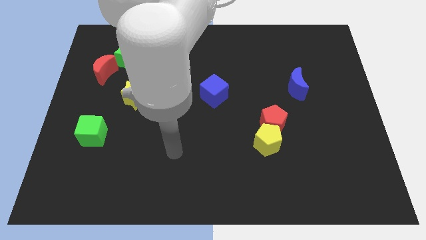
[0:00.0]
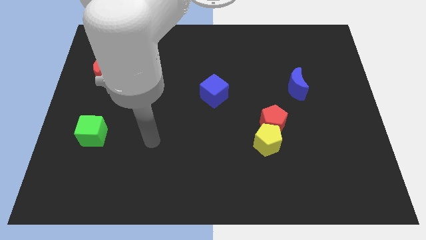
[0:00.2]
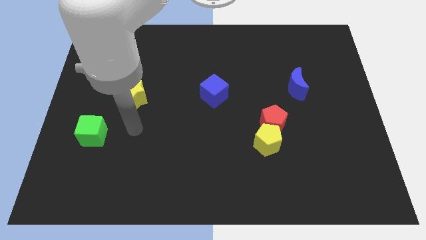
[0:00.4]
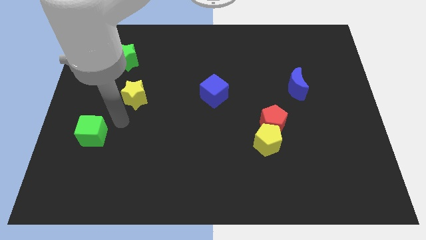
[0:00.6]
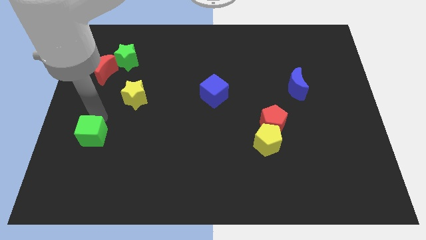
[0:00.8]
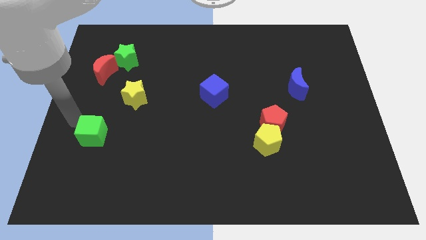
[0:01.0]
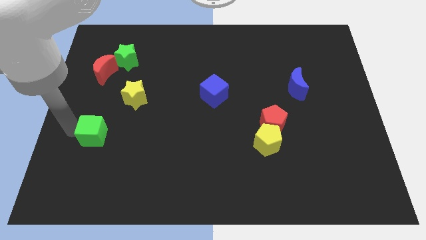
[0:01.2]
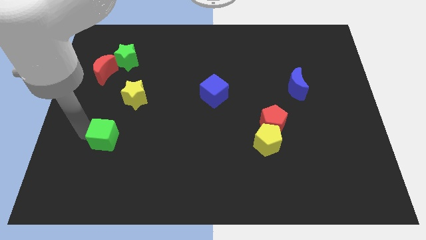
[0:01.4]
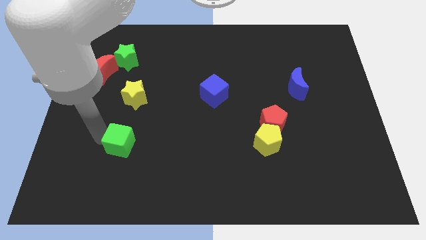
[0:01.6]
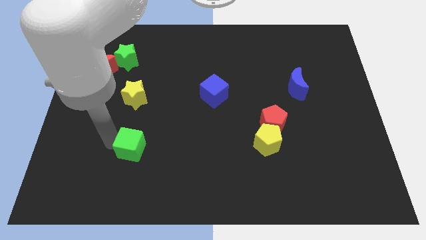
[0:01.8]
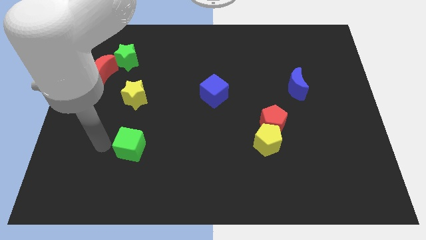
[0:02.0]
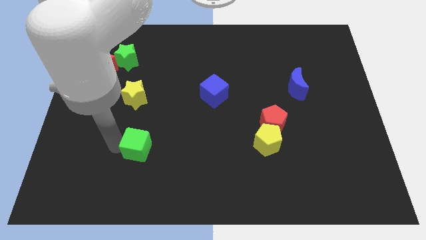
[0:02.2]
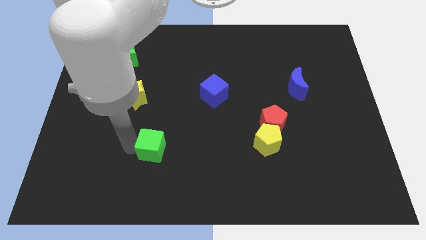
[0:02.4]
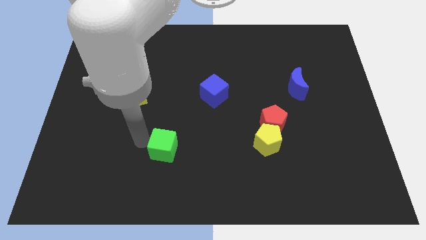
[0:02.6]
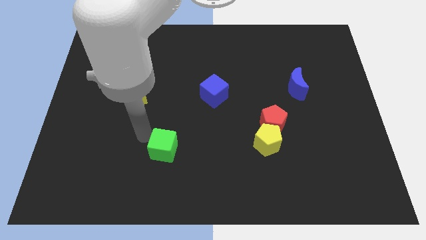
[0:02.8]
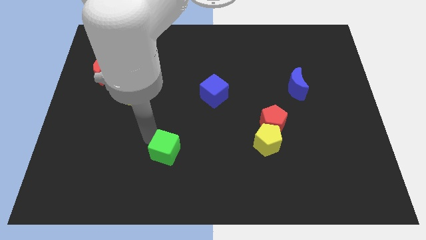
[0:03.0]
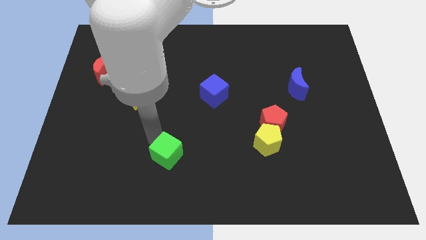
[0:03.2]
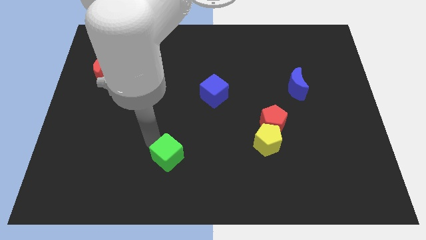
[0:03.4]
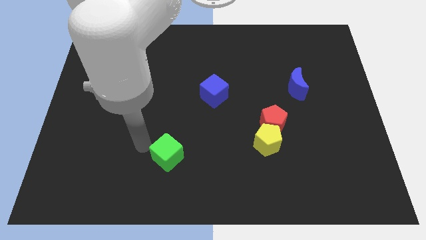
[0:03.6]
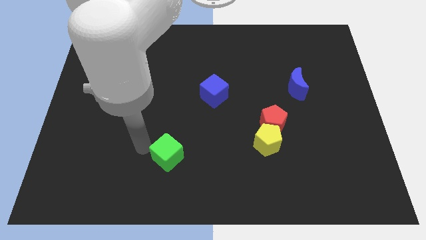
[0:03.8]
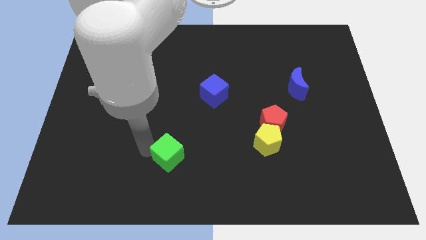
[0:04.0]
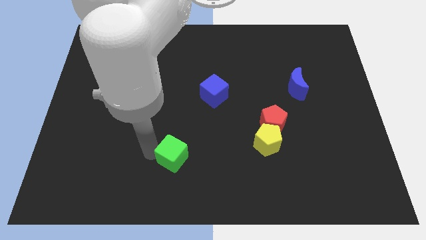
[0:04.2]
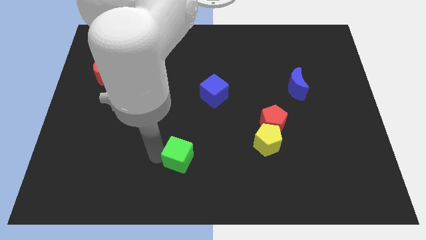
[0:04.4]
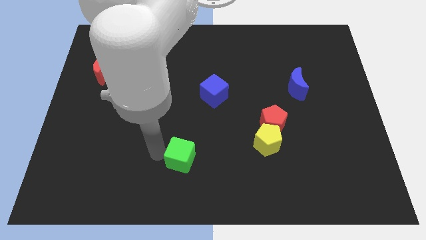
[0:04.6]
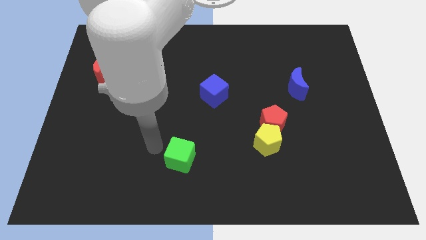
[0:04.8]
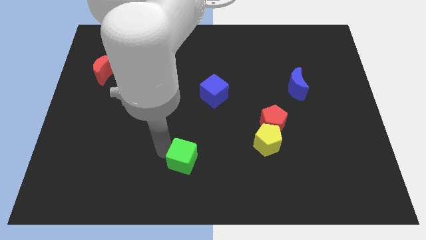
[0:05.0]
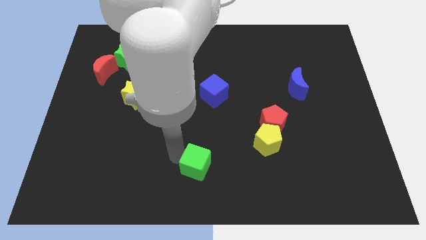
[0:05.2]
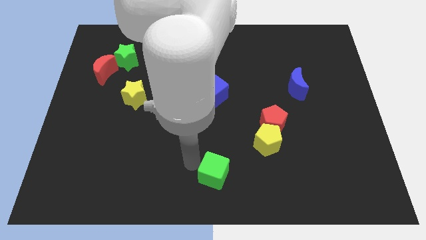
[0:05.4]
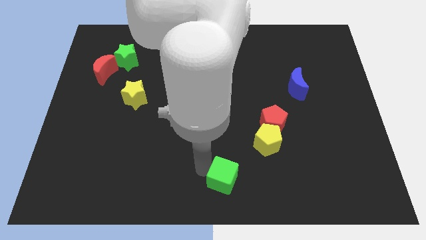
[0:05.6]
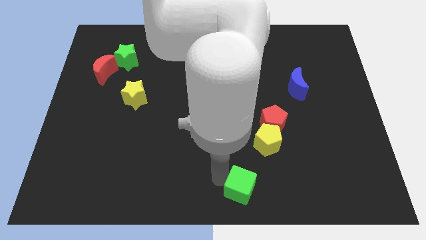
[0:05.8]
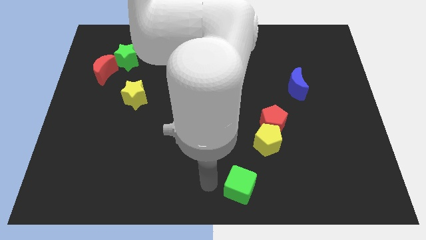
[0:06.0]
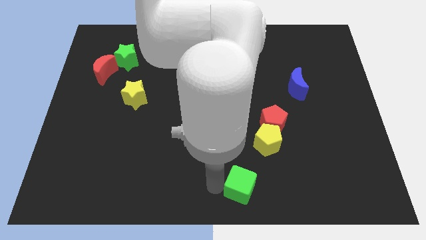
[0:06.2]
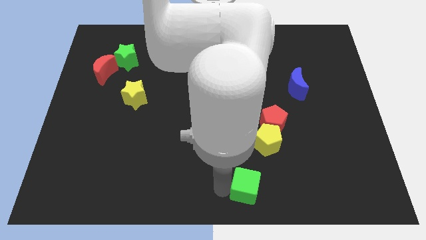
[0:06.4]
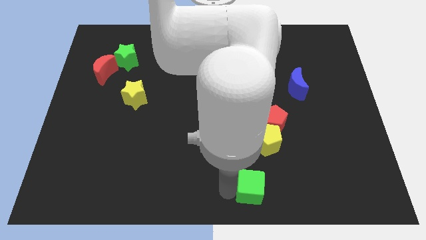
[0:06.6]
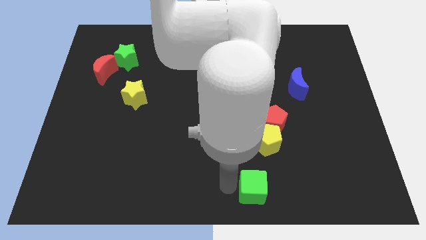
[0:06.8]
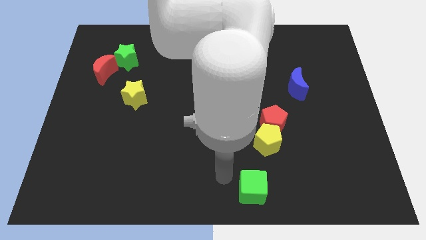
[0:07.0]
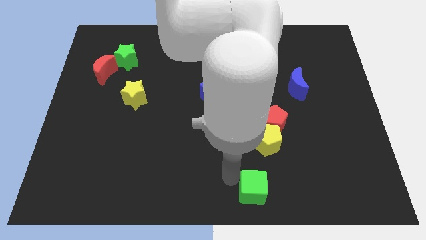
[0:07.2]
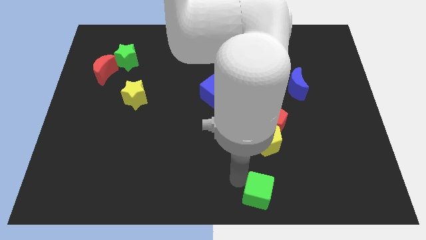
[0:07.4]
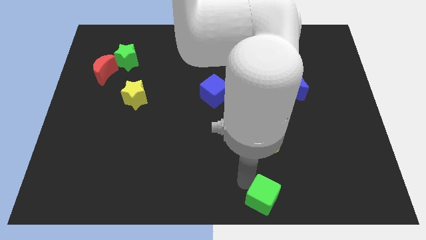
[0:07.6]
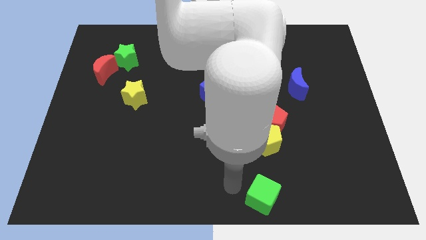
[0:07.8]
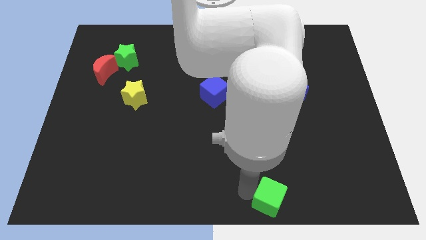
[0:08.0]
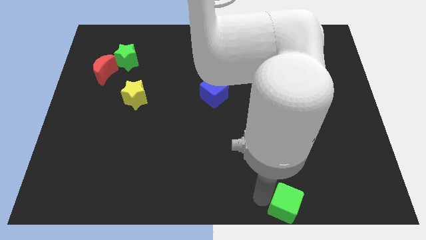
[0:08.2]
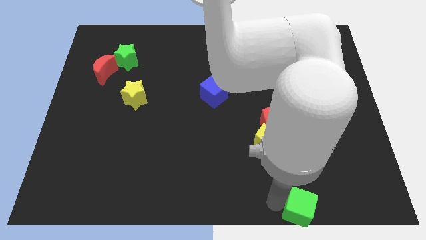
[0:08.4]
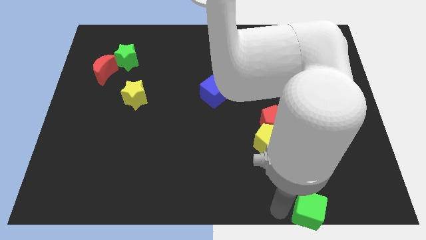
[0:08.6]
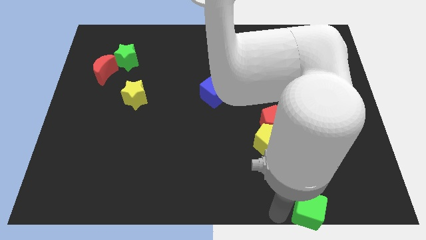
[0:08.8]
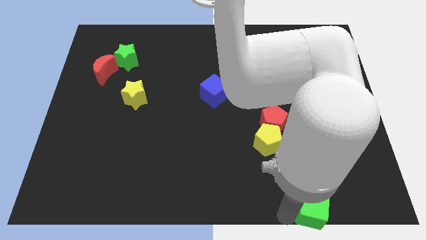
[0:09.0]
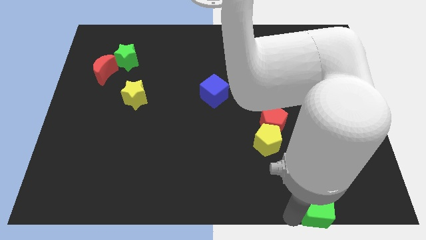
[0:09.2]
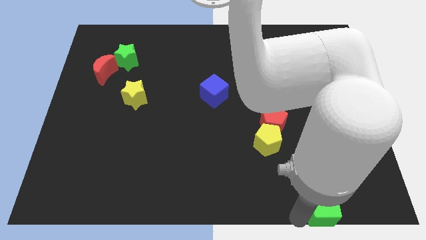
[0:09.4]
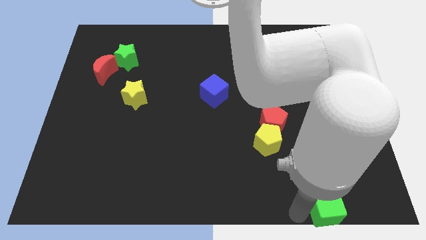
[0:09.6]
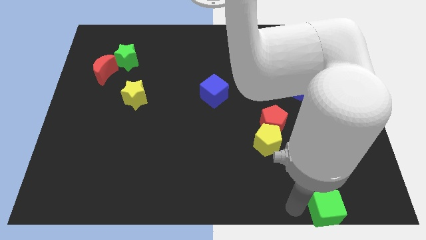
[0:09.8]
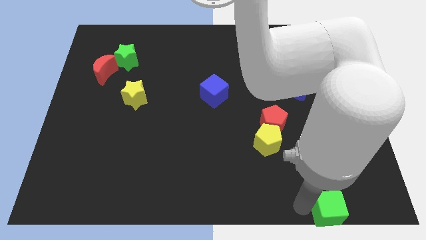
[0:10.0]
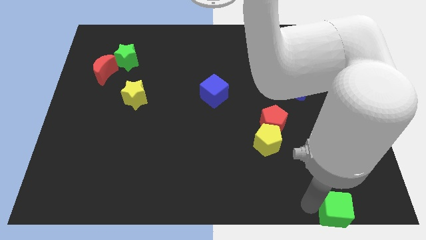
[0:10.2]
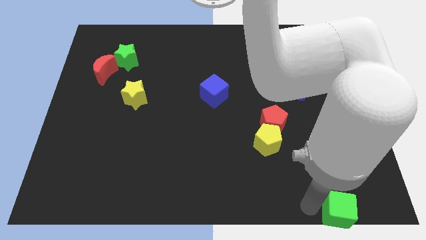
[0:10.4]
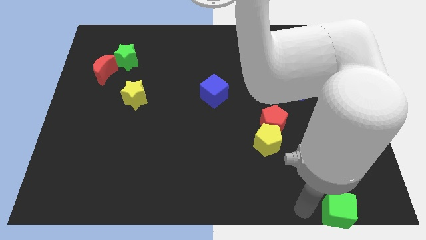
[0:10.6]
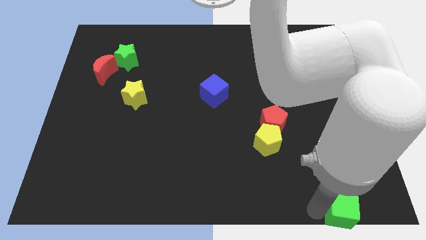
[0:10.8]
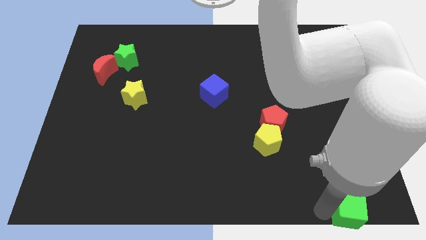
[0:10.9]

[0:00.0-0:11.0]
move the green cube to the bottom right corner

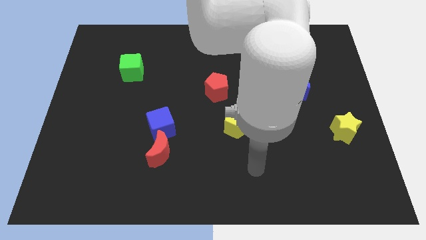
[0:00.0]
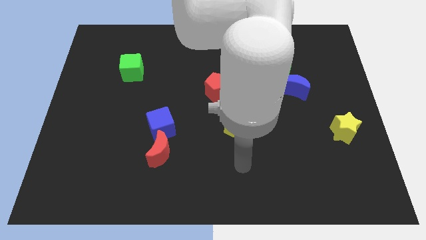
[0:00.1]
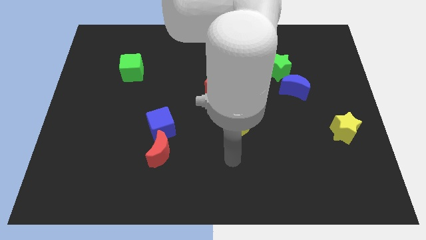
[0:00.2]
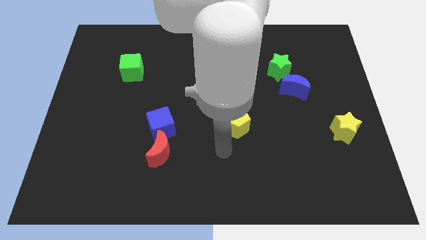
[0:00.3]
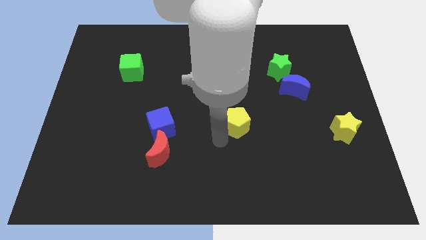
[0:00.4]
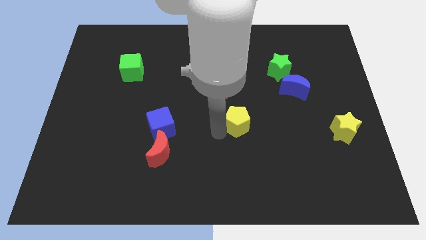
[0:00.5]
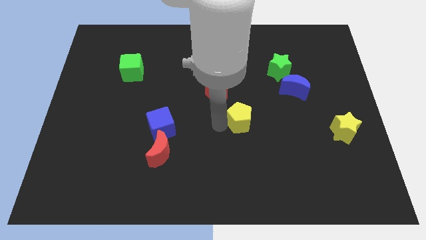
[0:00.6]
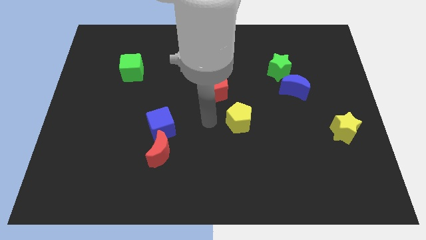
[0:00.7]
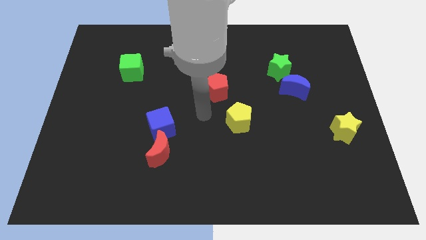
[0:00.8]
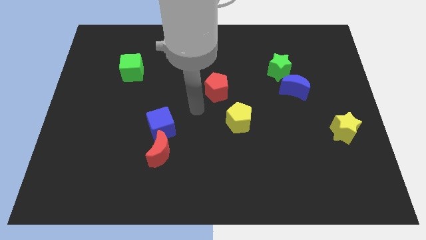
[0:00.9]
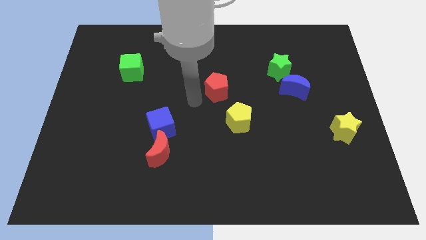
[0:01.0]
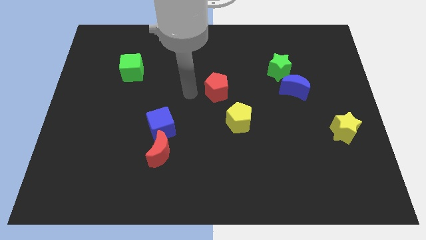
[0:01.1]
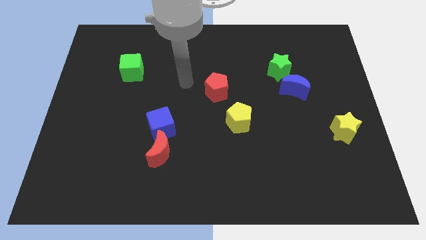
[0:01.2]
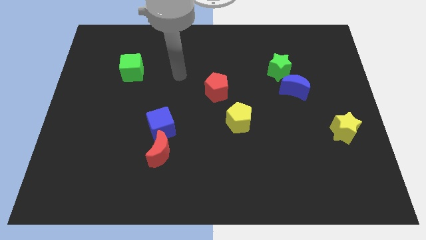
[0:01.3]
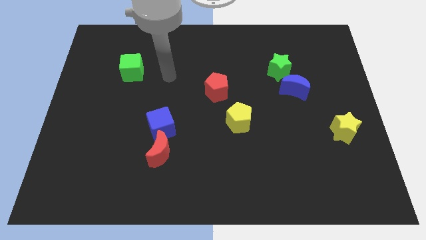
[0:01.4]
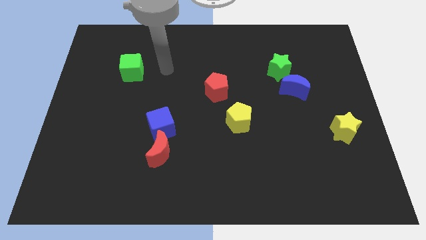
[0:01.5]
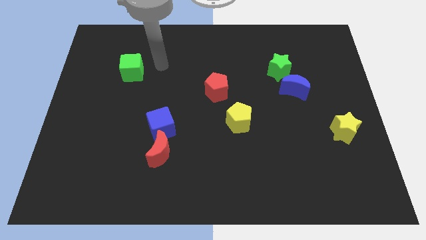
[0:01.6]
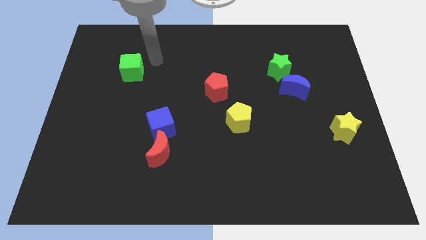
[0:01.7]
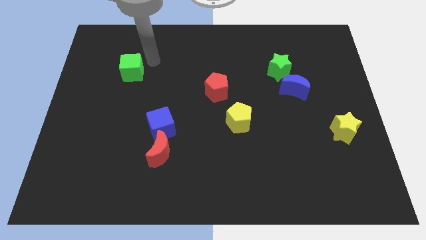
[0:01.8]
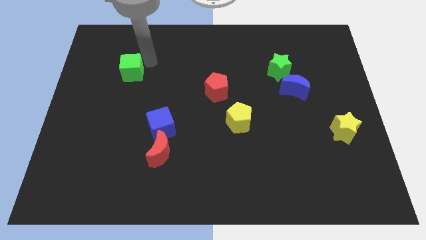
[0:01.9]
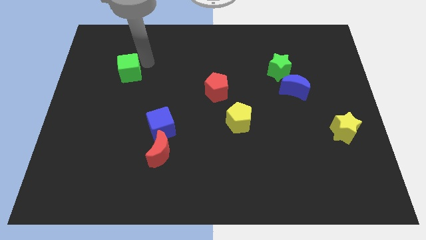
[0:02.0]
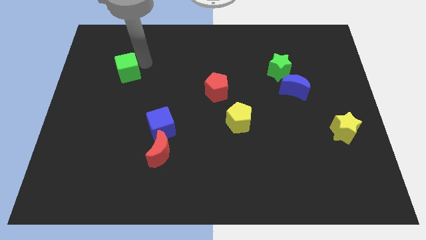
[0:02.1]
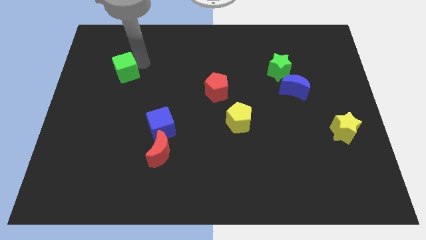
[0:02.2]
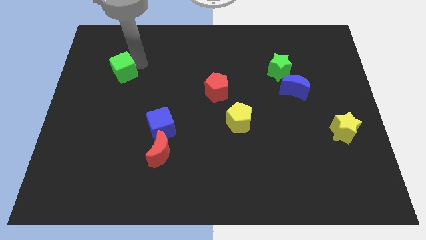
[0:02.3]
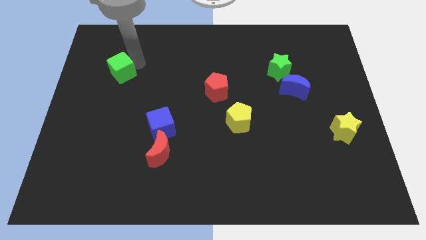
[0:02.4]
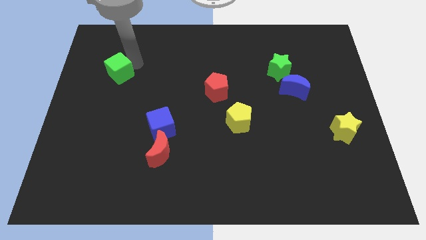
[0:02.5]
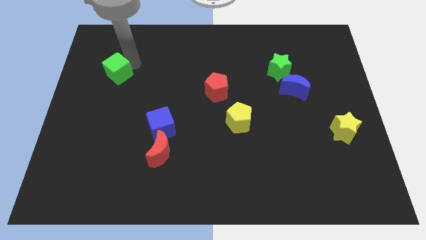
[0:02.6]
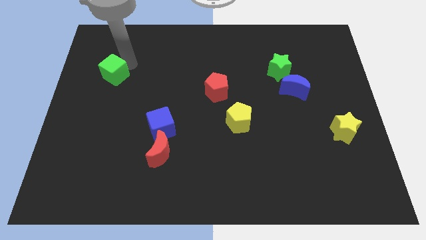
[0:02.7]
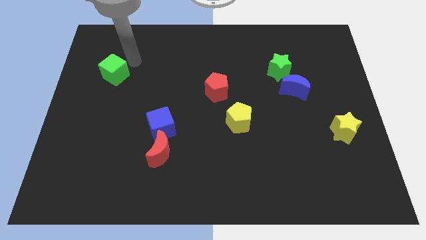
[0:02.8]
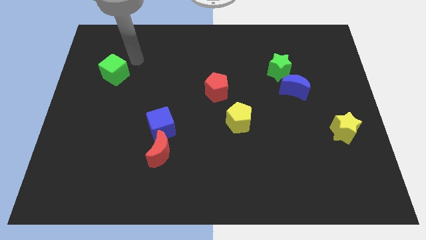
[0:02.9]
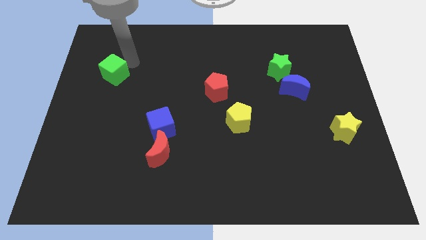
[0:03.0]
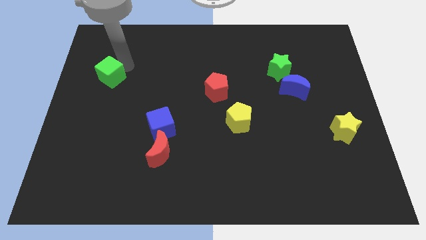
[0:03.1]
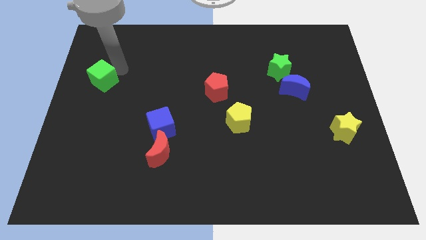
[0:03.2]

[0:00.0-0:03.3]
slide the green cube to the left side
